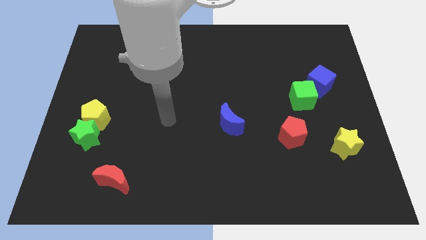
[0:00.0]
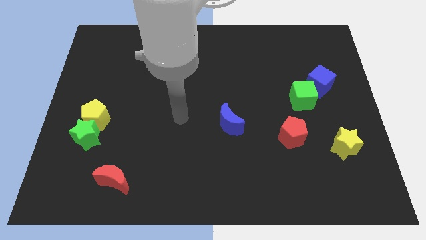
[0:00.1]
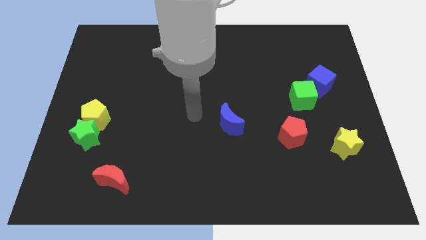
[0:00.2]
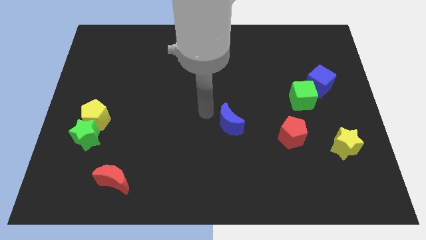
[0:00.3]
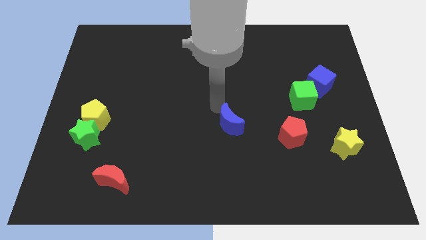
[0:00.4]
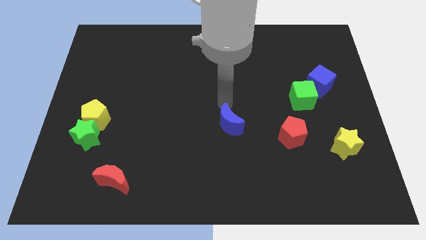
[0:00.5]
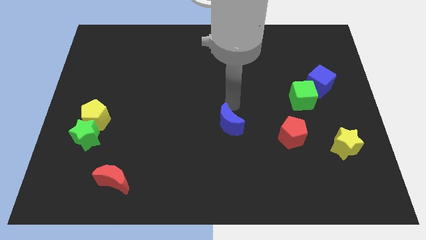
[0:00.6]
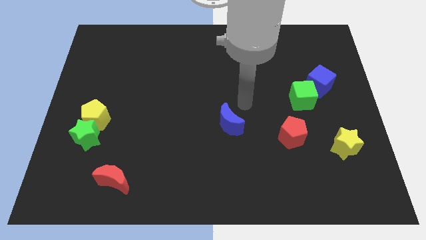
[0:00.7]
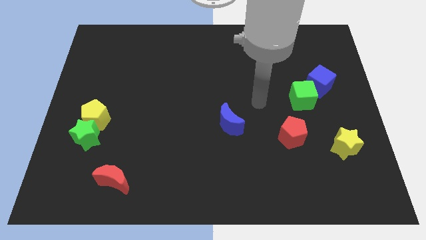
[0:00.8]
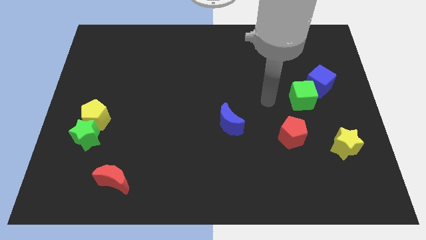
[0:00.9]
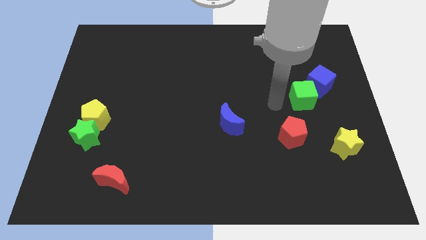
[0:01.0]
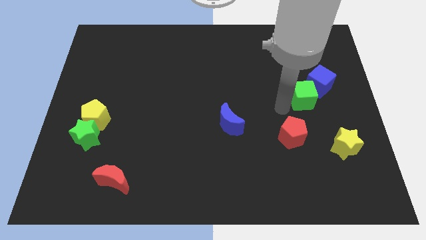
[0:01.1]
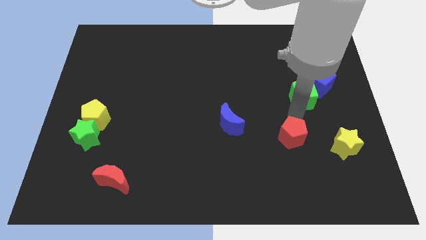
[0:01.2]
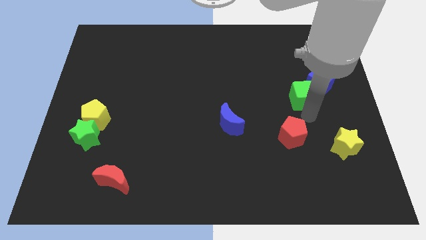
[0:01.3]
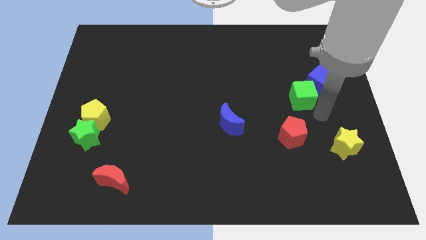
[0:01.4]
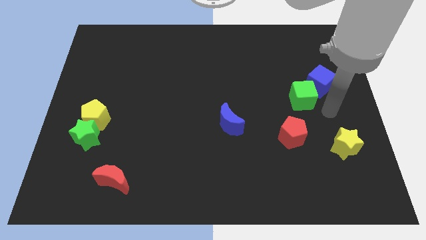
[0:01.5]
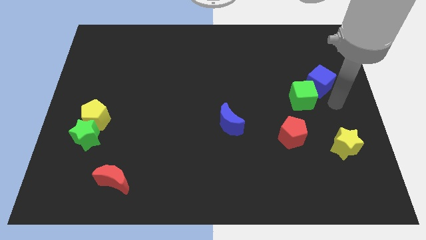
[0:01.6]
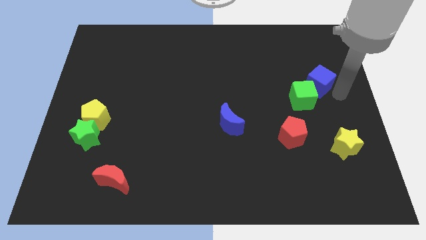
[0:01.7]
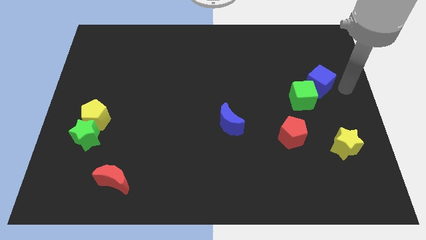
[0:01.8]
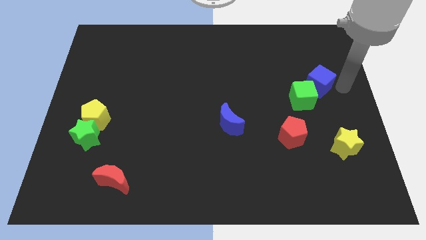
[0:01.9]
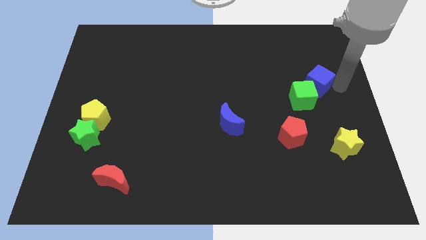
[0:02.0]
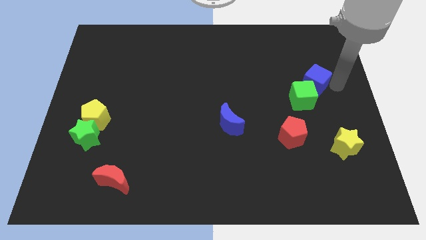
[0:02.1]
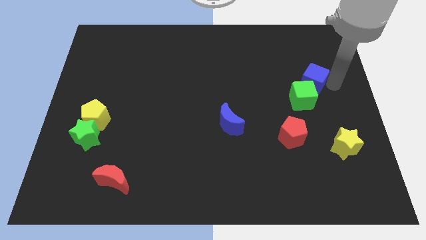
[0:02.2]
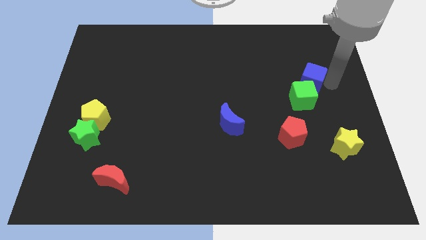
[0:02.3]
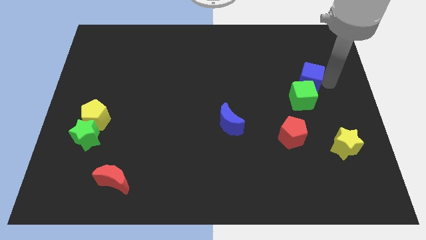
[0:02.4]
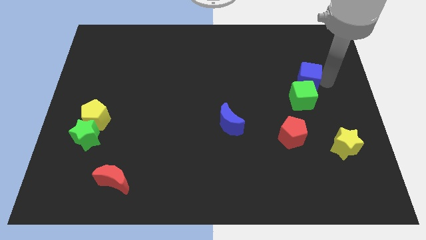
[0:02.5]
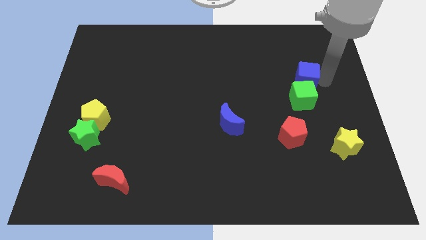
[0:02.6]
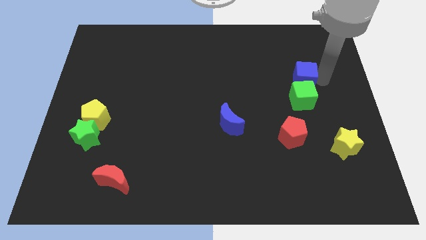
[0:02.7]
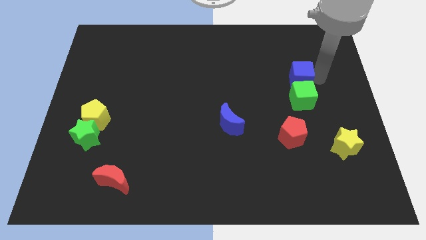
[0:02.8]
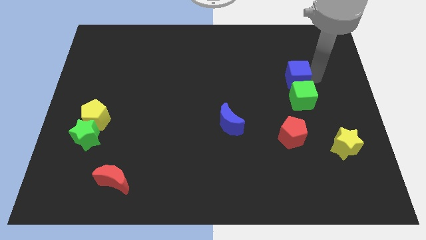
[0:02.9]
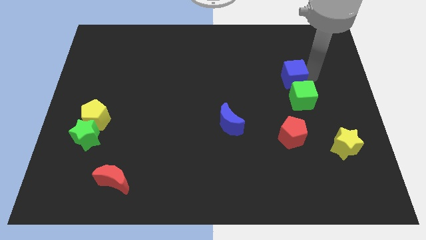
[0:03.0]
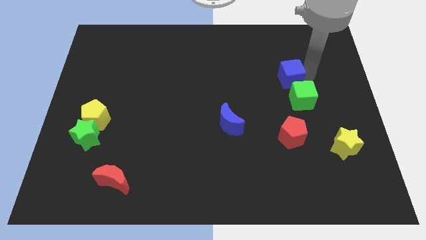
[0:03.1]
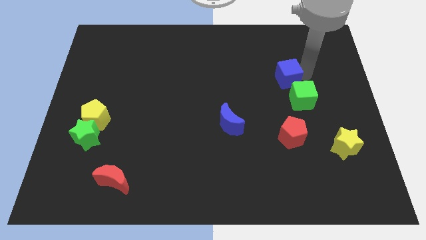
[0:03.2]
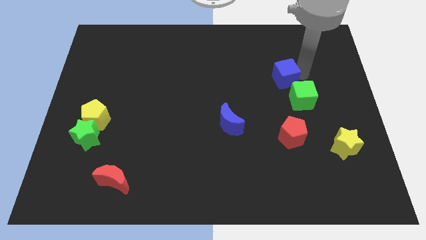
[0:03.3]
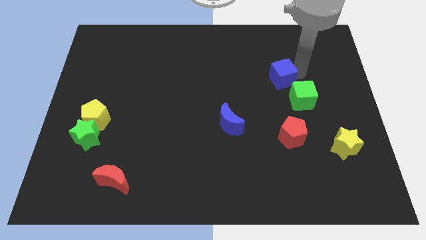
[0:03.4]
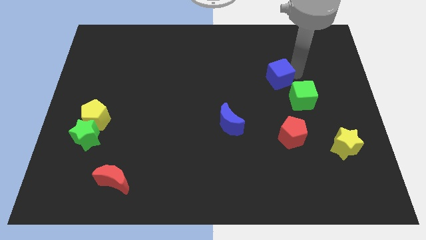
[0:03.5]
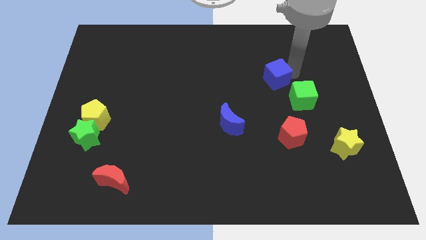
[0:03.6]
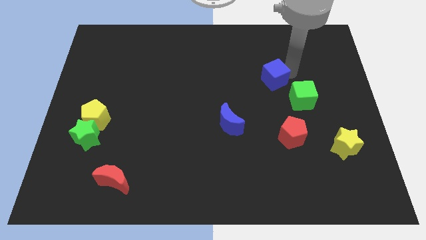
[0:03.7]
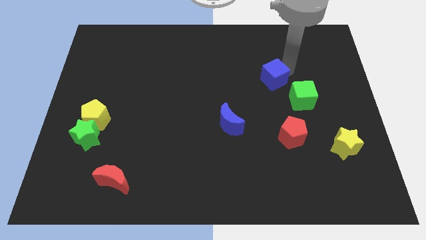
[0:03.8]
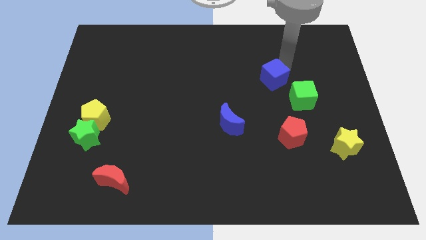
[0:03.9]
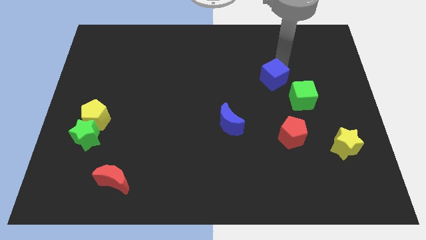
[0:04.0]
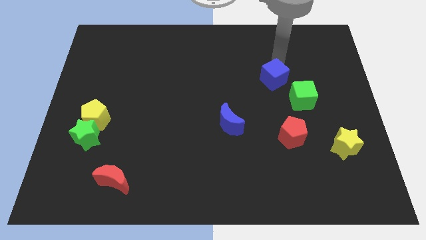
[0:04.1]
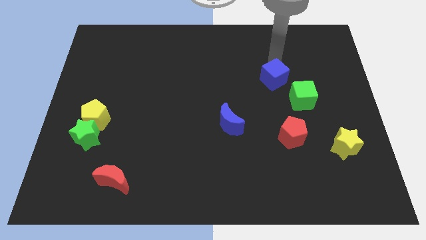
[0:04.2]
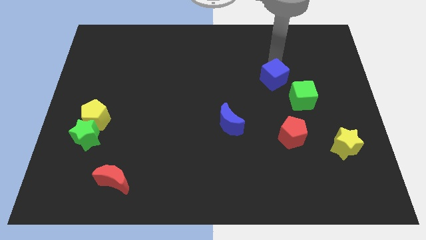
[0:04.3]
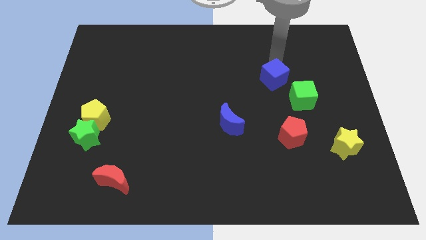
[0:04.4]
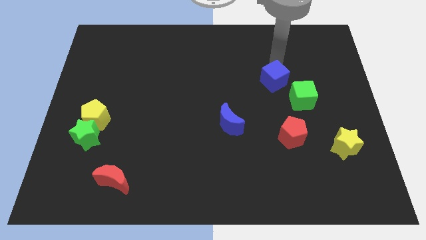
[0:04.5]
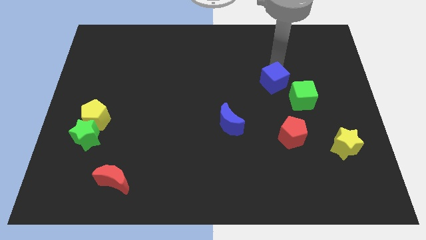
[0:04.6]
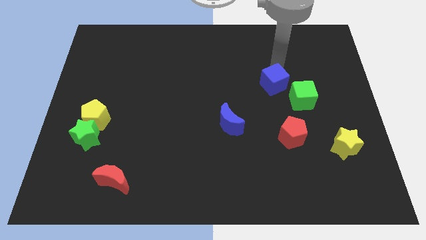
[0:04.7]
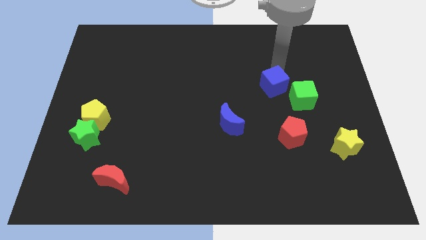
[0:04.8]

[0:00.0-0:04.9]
move the blue cube just left of the green cube

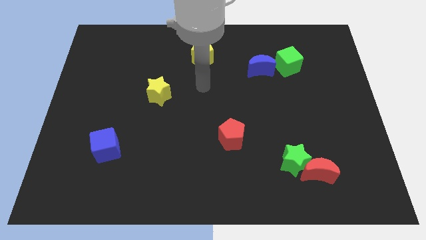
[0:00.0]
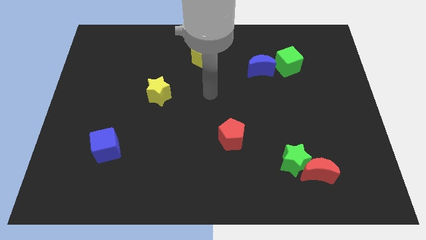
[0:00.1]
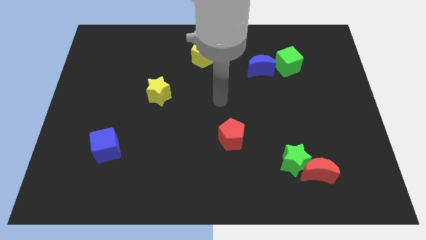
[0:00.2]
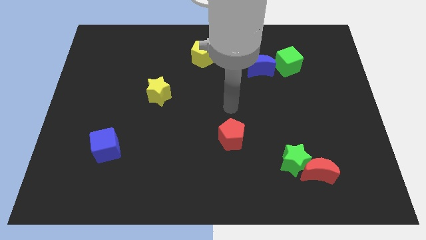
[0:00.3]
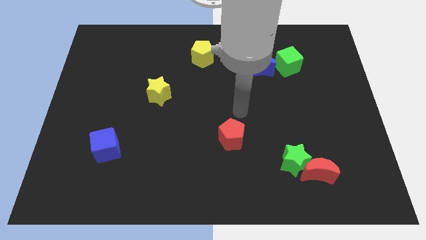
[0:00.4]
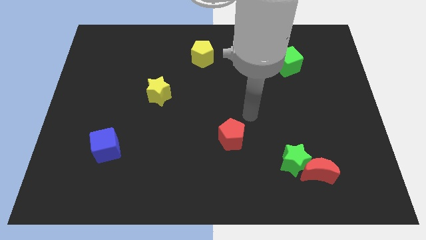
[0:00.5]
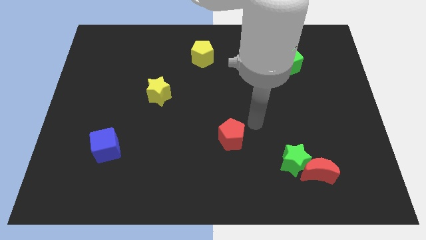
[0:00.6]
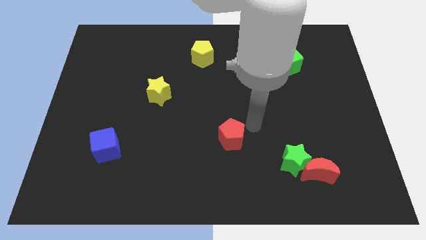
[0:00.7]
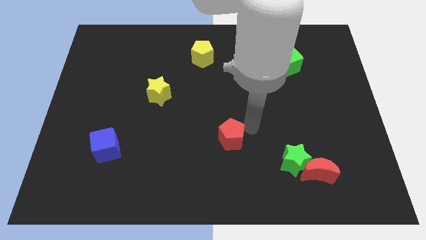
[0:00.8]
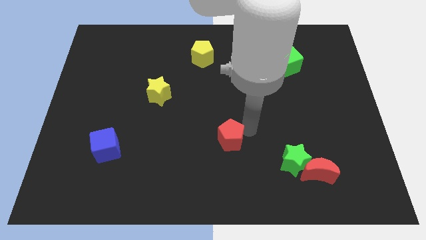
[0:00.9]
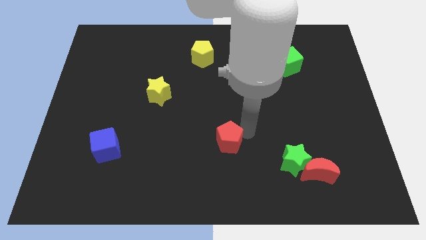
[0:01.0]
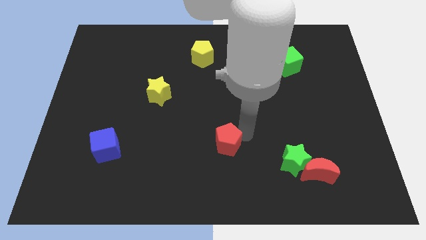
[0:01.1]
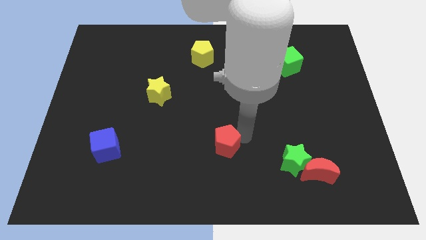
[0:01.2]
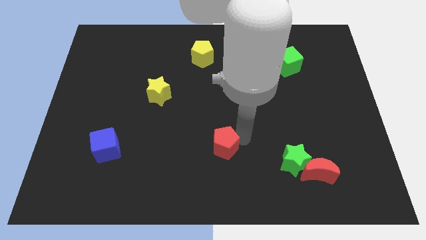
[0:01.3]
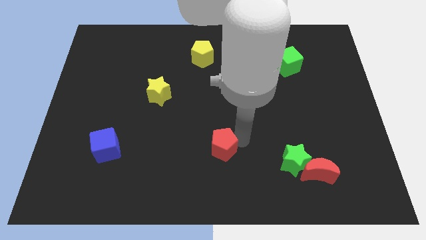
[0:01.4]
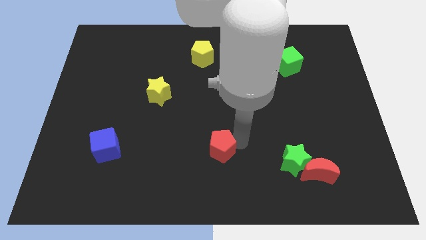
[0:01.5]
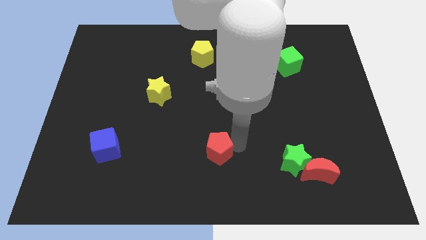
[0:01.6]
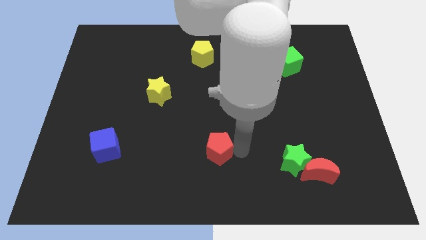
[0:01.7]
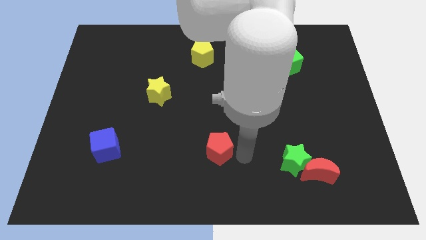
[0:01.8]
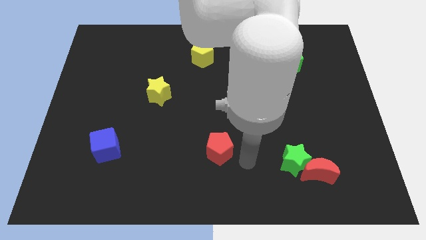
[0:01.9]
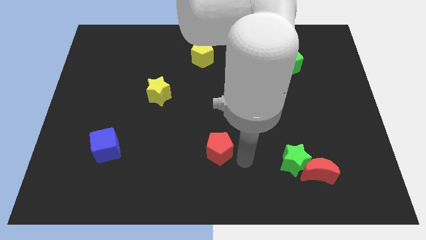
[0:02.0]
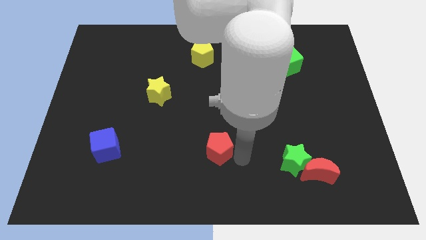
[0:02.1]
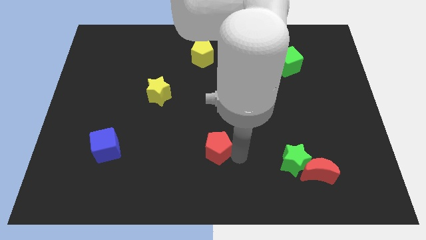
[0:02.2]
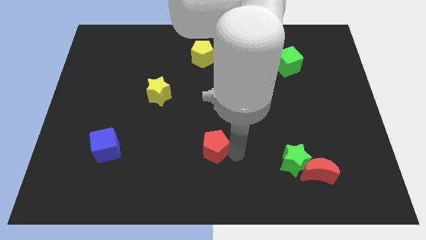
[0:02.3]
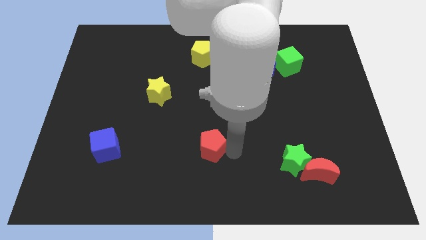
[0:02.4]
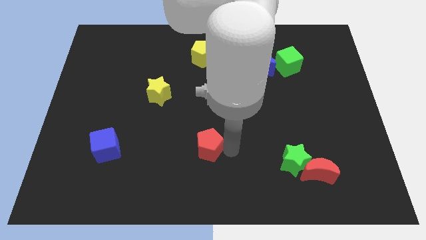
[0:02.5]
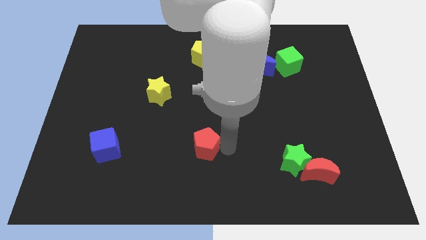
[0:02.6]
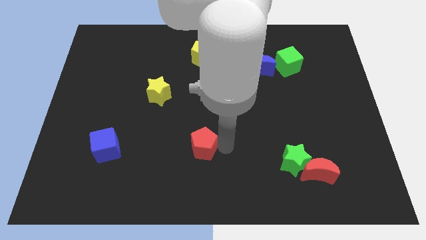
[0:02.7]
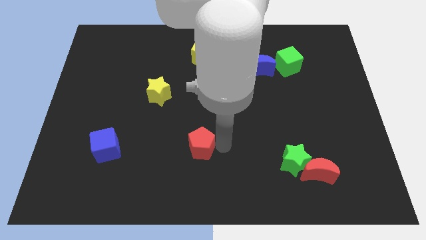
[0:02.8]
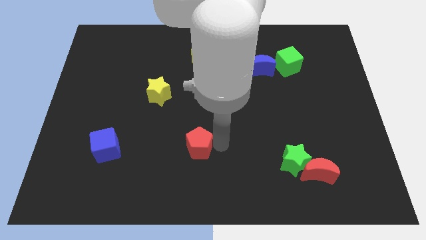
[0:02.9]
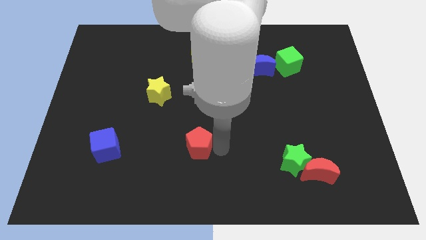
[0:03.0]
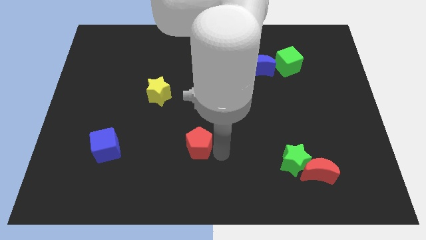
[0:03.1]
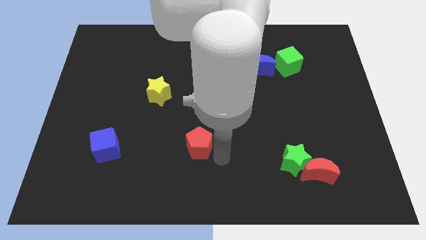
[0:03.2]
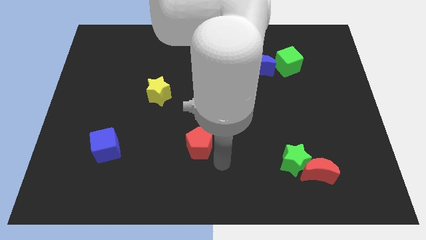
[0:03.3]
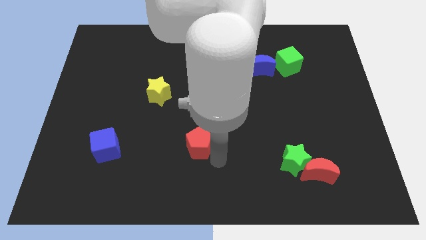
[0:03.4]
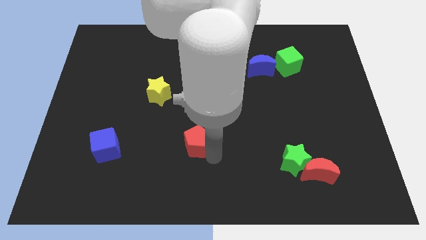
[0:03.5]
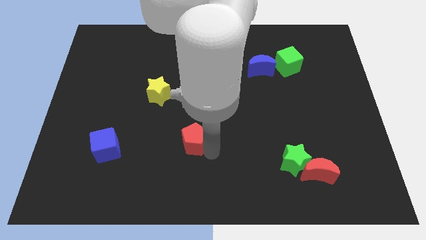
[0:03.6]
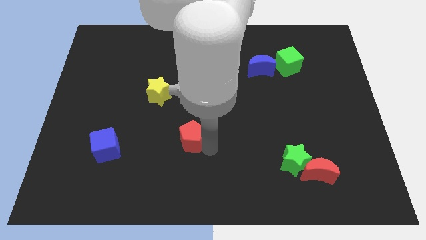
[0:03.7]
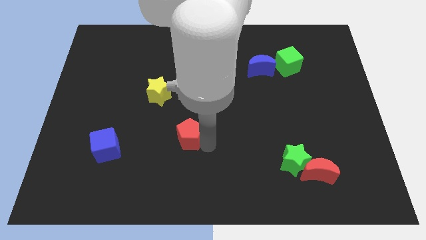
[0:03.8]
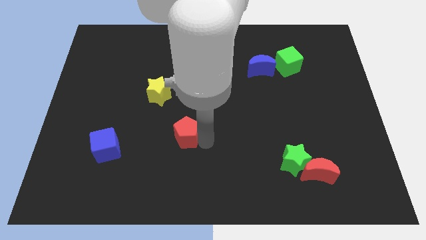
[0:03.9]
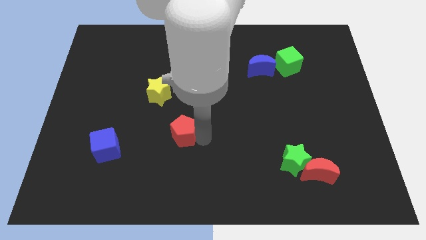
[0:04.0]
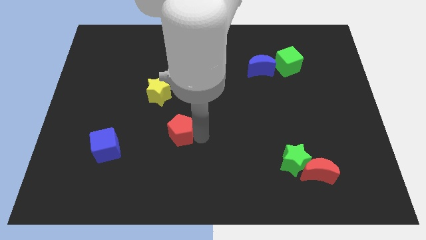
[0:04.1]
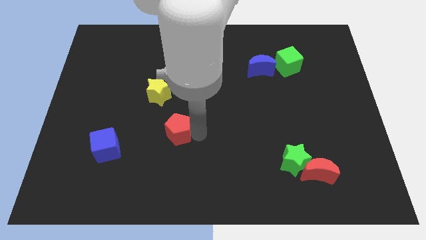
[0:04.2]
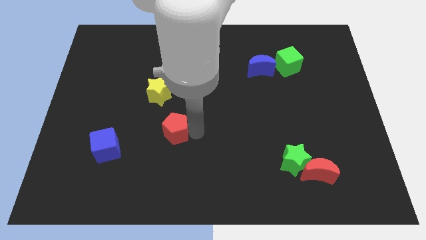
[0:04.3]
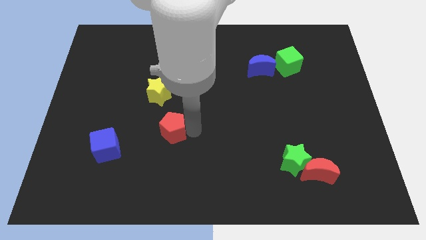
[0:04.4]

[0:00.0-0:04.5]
push the red pentagon below the yellow star
